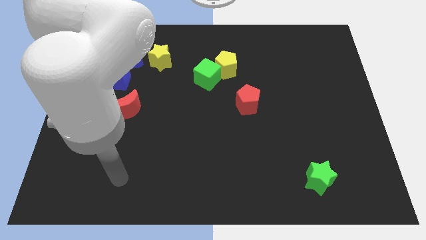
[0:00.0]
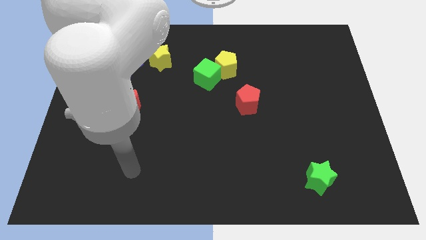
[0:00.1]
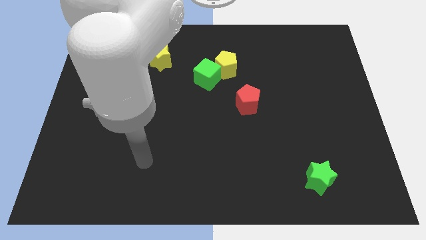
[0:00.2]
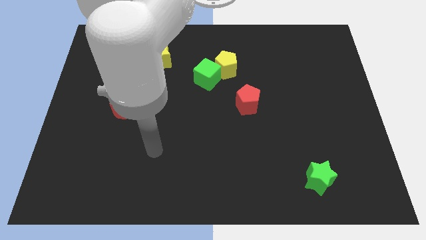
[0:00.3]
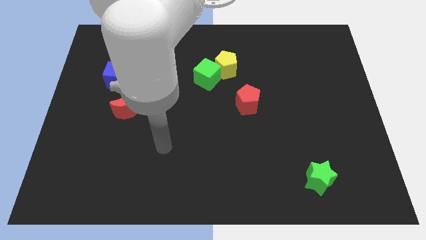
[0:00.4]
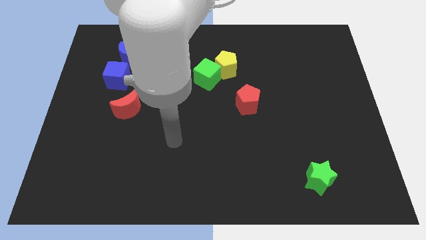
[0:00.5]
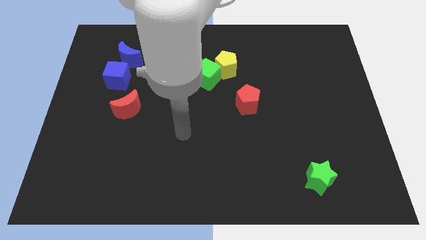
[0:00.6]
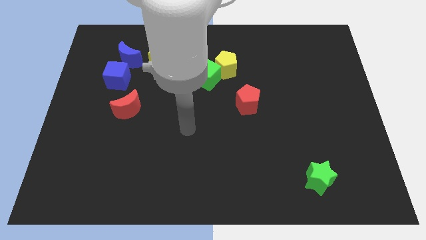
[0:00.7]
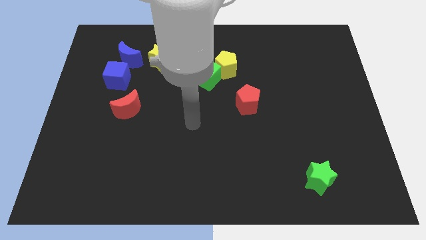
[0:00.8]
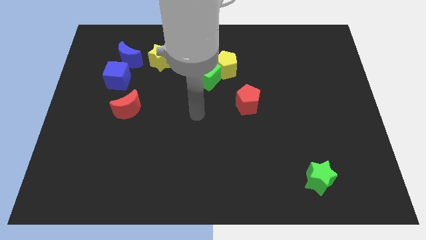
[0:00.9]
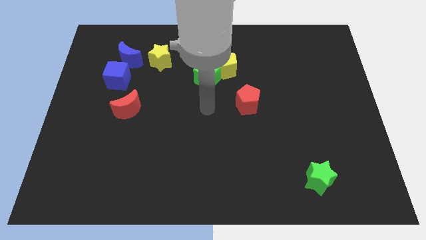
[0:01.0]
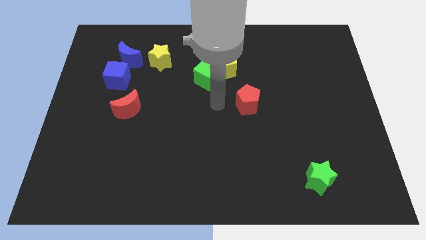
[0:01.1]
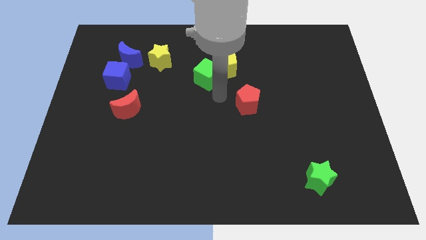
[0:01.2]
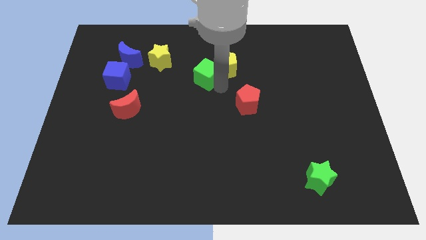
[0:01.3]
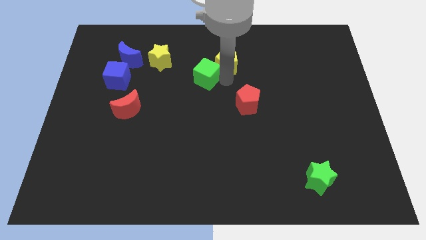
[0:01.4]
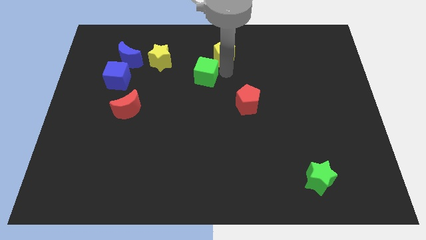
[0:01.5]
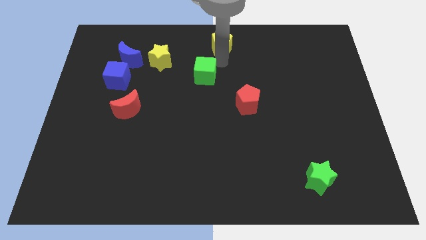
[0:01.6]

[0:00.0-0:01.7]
move the green cube away from the yellow pentagon

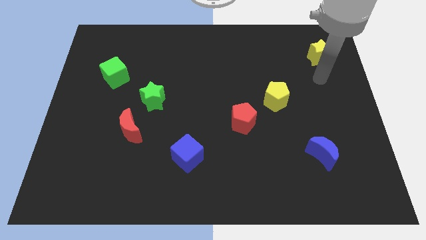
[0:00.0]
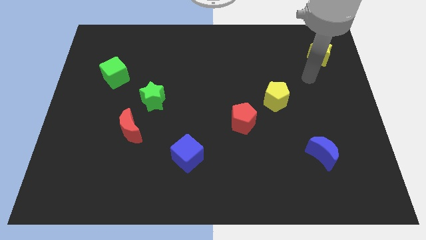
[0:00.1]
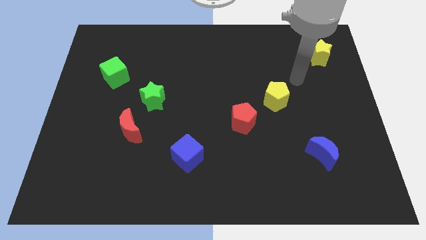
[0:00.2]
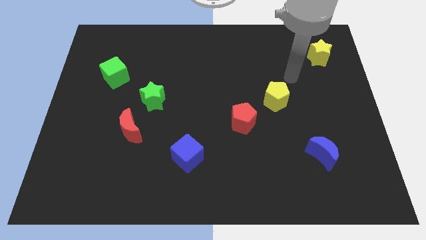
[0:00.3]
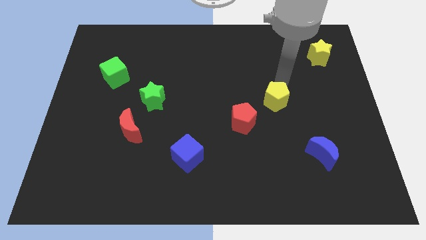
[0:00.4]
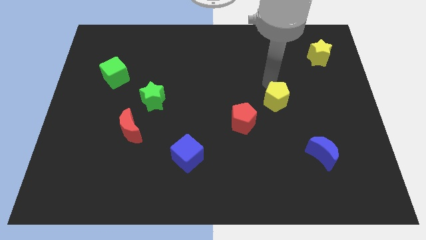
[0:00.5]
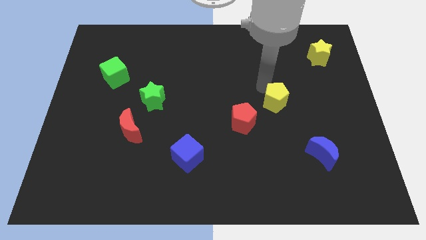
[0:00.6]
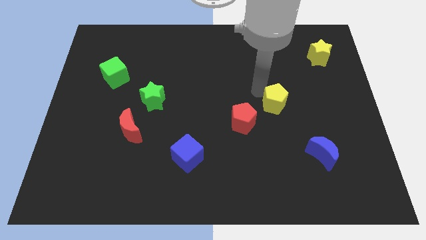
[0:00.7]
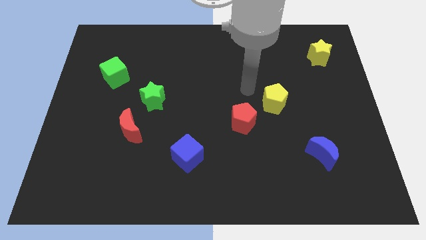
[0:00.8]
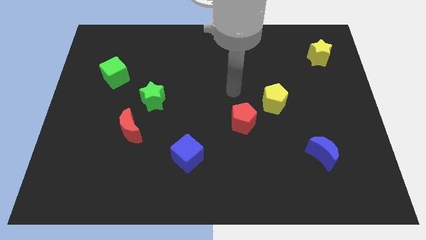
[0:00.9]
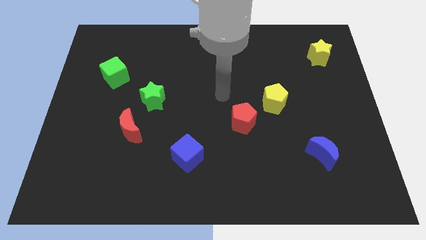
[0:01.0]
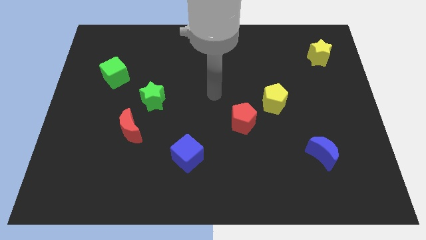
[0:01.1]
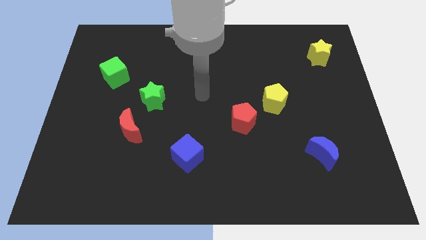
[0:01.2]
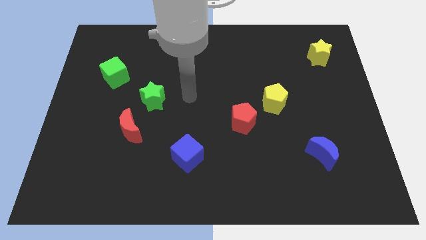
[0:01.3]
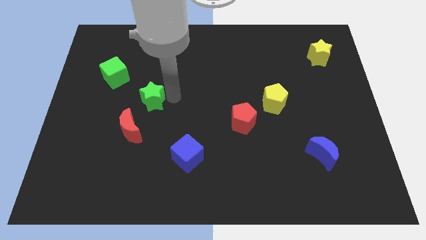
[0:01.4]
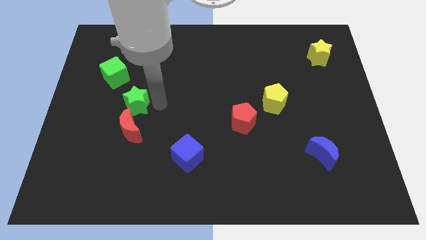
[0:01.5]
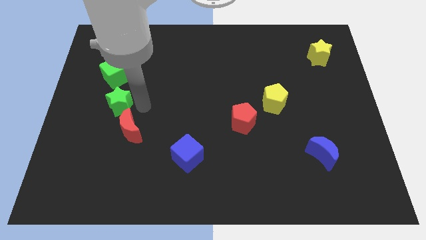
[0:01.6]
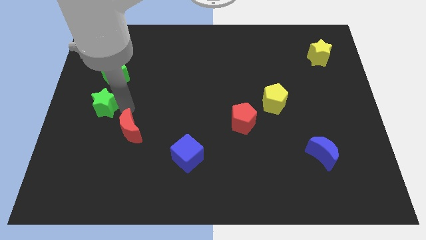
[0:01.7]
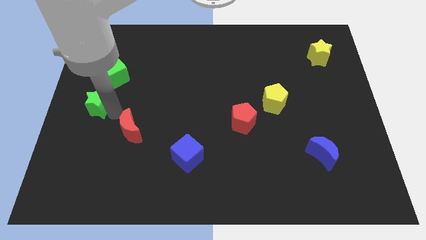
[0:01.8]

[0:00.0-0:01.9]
move the red moon away from the green star

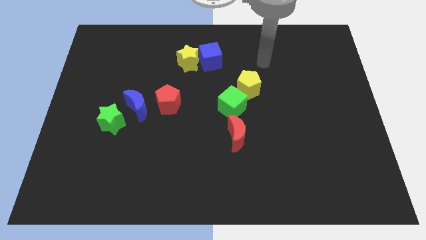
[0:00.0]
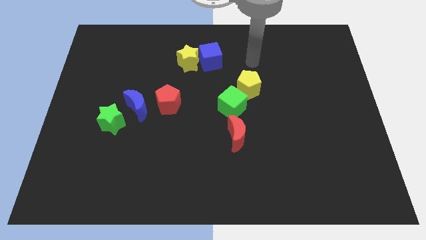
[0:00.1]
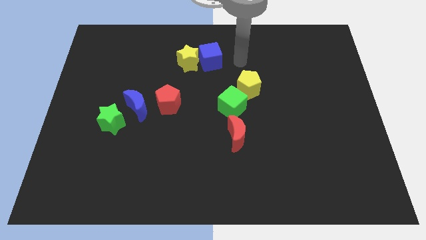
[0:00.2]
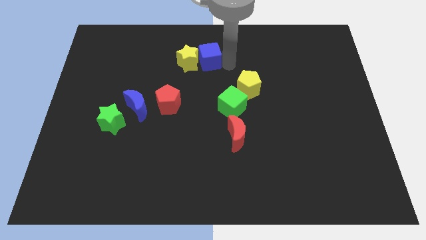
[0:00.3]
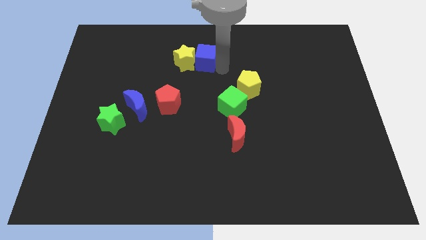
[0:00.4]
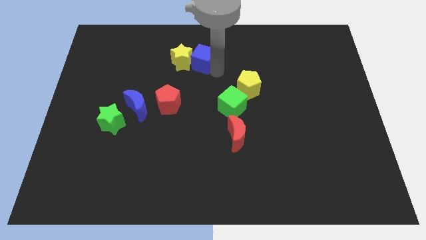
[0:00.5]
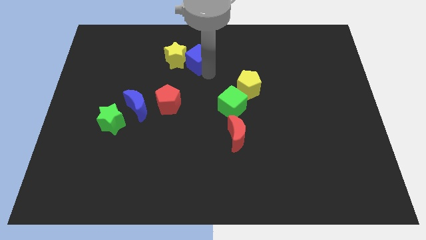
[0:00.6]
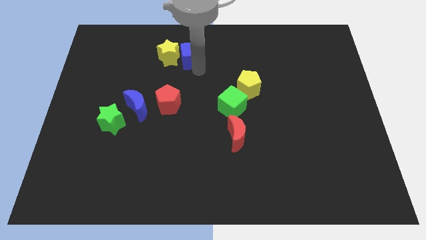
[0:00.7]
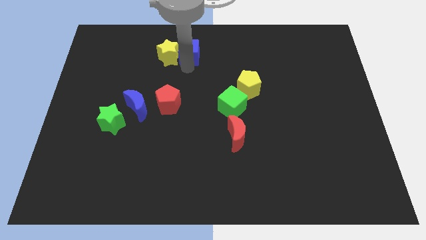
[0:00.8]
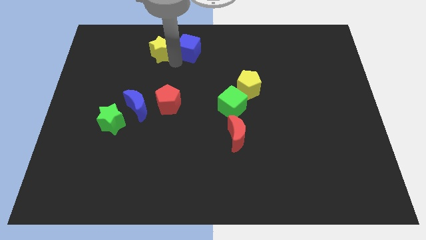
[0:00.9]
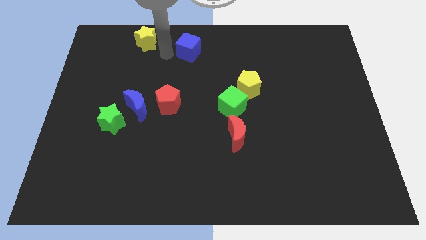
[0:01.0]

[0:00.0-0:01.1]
pull the blue cube apart from the yellow star

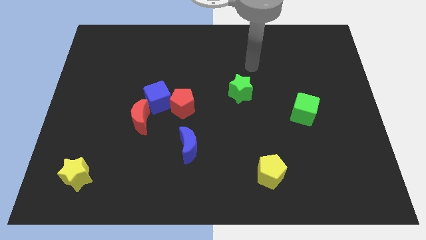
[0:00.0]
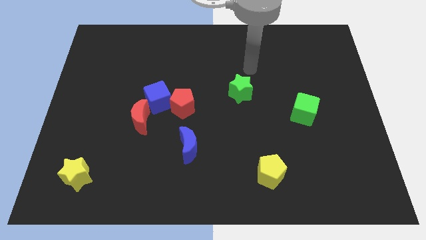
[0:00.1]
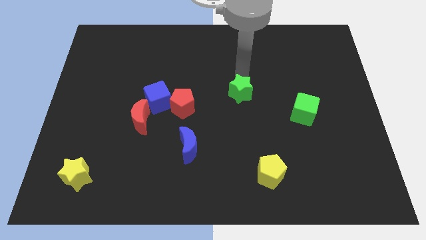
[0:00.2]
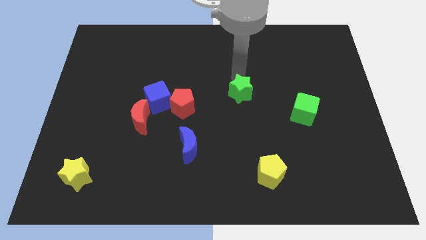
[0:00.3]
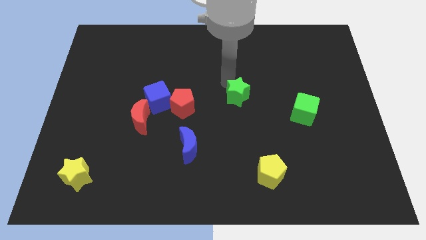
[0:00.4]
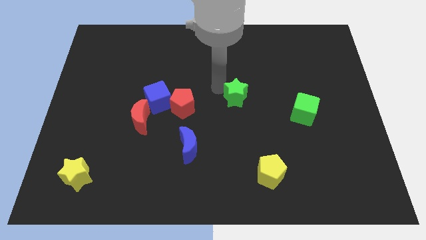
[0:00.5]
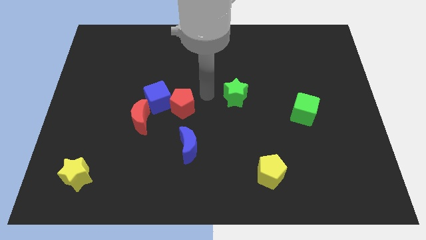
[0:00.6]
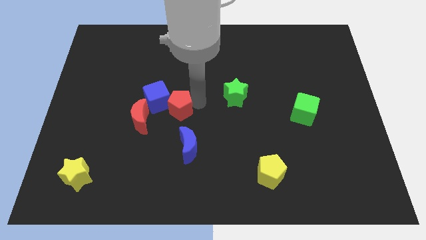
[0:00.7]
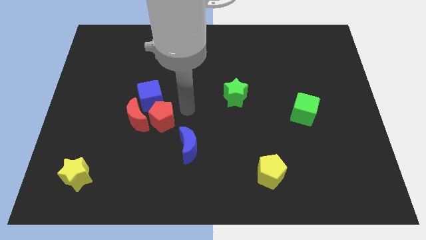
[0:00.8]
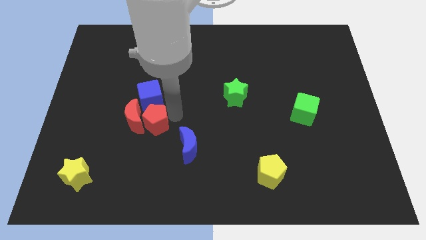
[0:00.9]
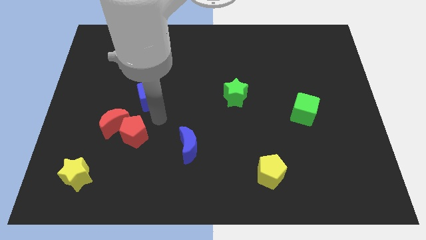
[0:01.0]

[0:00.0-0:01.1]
move the blue cube away from the red pentagon and red moon

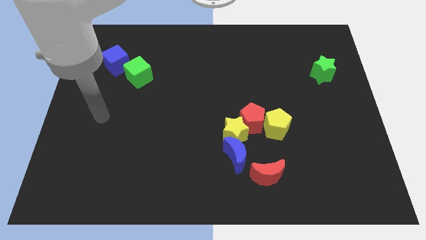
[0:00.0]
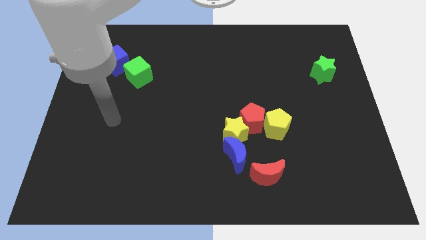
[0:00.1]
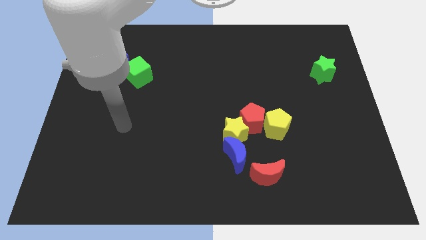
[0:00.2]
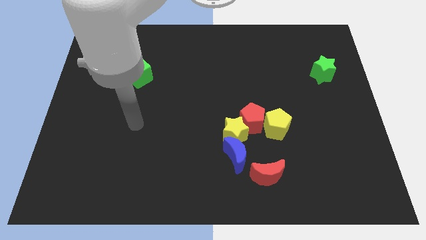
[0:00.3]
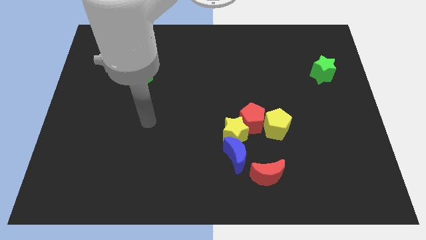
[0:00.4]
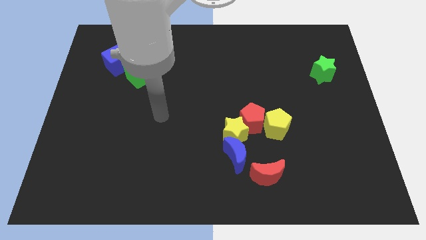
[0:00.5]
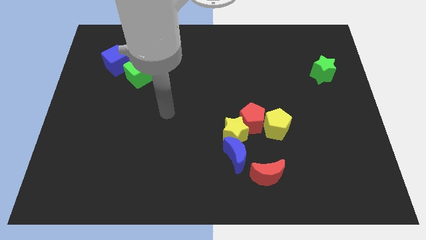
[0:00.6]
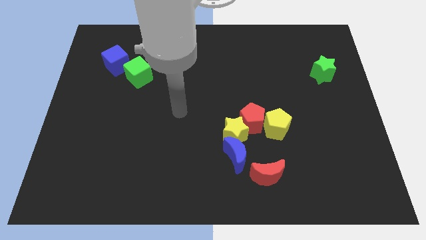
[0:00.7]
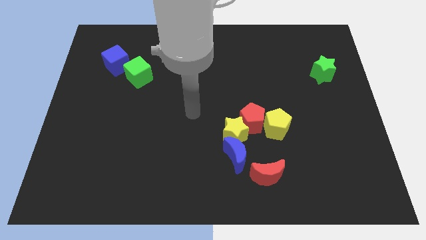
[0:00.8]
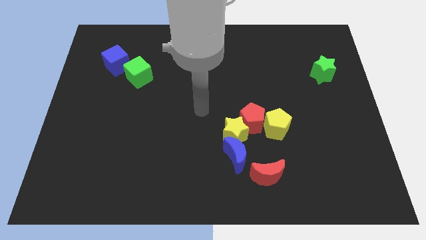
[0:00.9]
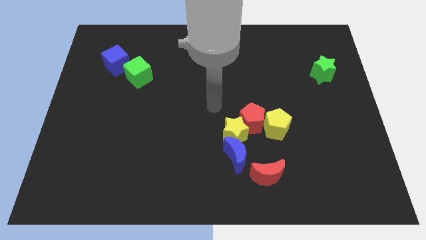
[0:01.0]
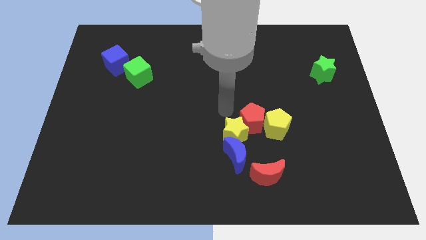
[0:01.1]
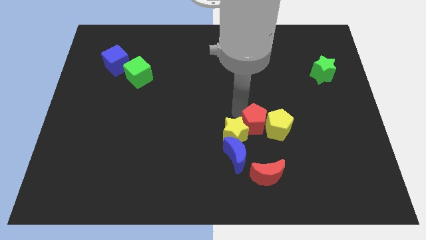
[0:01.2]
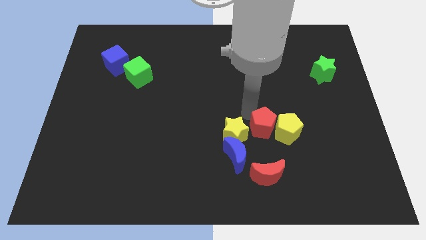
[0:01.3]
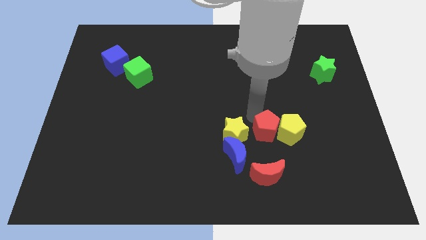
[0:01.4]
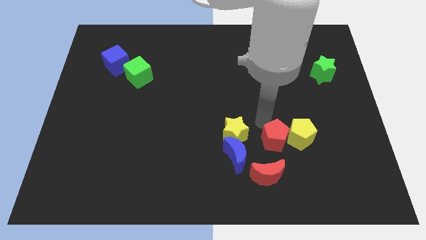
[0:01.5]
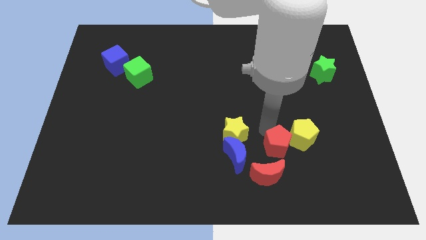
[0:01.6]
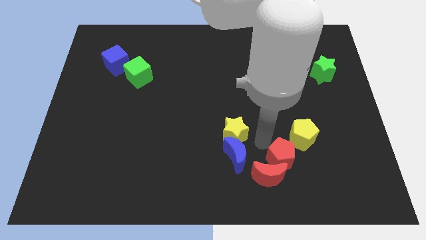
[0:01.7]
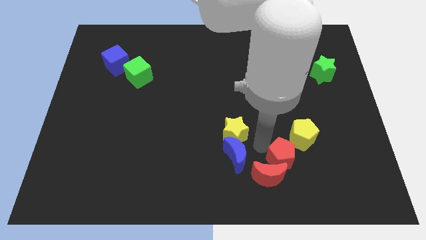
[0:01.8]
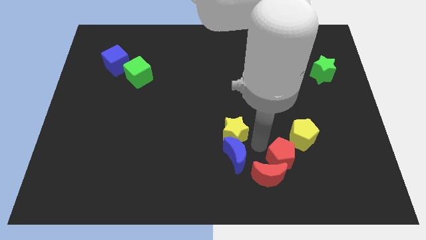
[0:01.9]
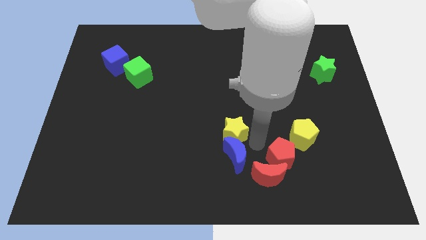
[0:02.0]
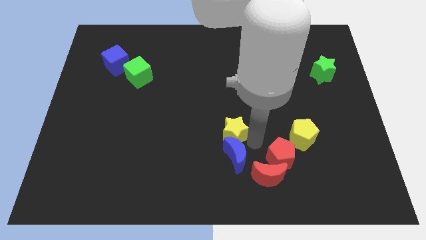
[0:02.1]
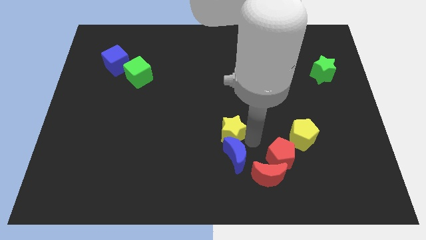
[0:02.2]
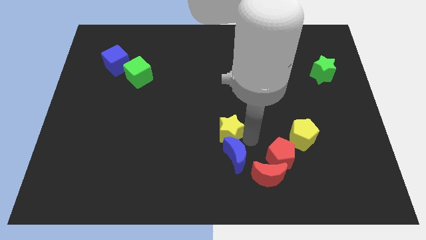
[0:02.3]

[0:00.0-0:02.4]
move the yellow star away from the group

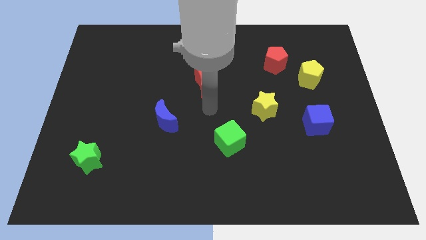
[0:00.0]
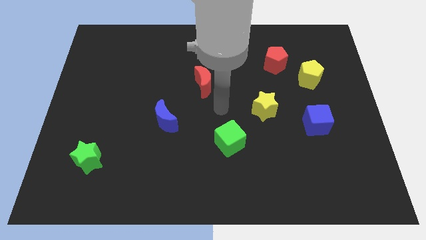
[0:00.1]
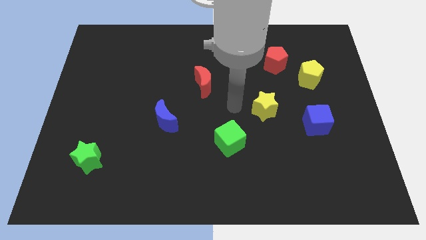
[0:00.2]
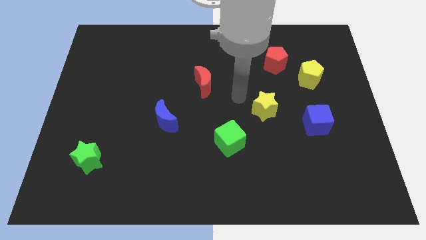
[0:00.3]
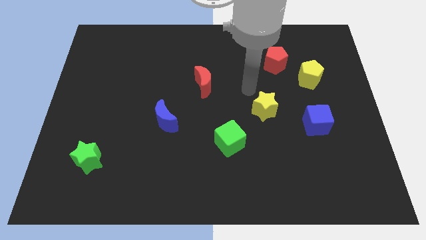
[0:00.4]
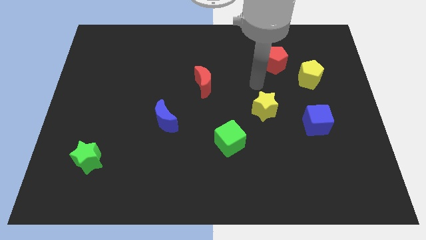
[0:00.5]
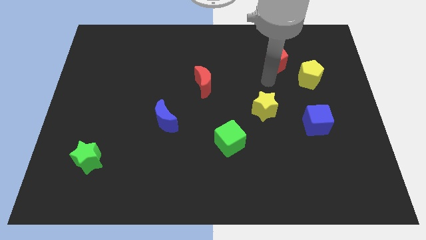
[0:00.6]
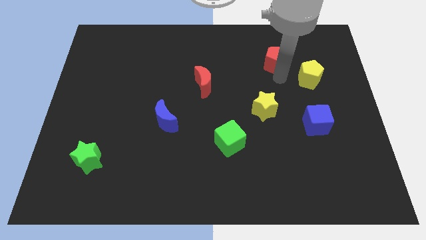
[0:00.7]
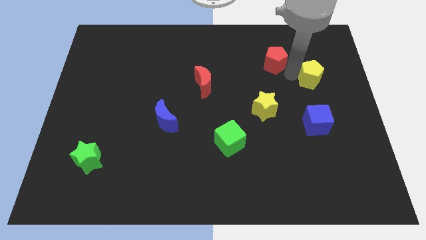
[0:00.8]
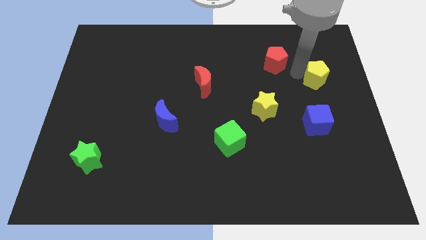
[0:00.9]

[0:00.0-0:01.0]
separate the red pentagon from the yellow pentagon

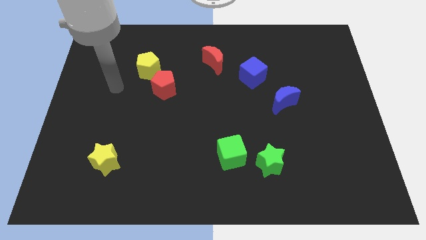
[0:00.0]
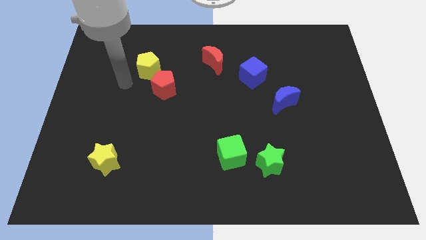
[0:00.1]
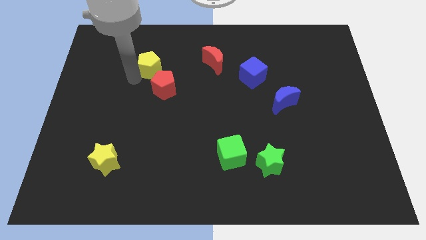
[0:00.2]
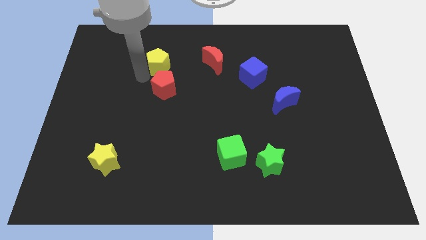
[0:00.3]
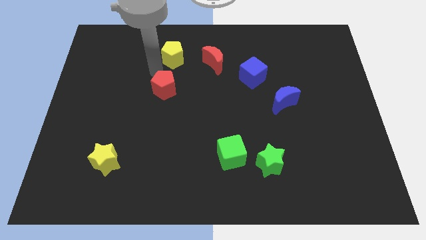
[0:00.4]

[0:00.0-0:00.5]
move the red pentagon away from the yellow pentagon
